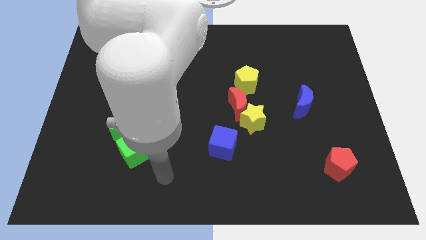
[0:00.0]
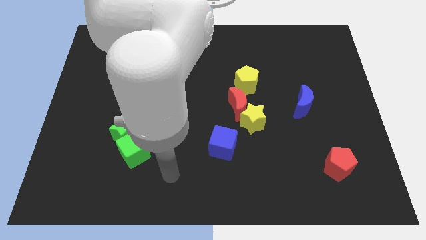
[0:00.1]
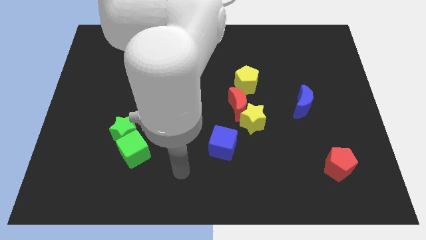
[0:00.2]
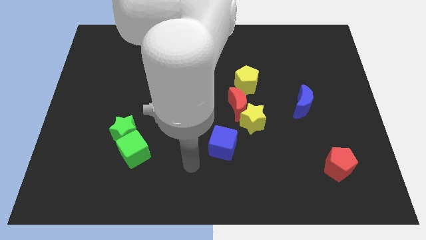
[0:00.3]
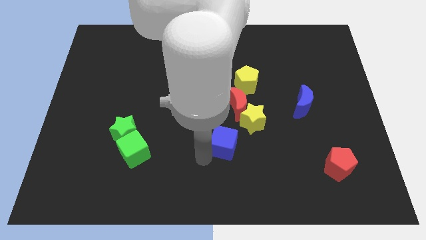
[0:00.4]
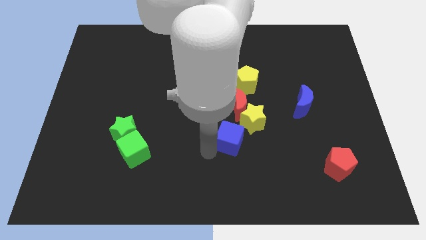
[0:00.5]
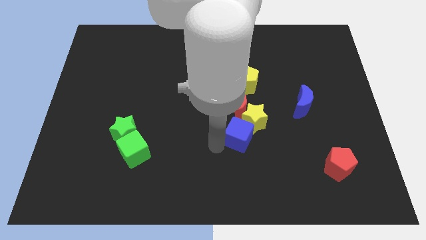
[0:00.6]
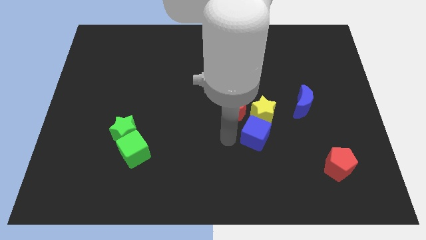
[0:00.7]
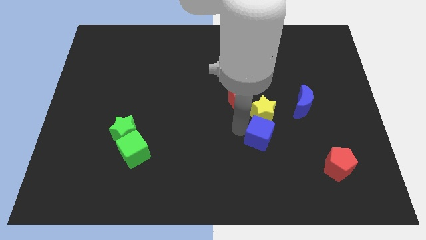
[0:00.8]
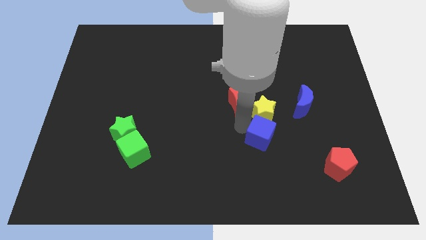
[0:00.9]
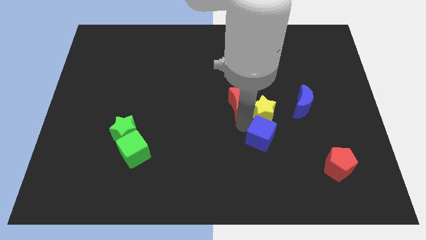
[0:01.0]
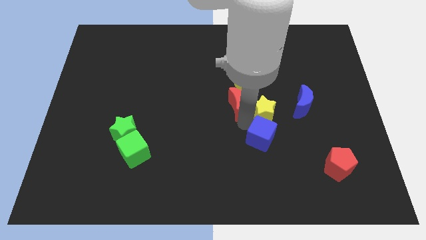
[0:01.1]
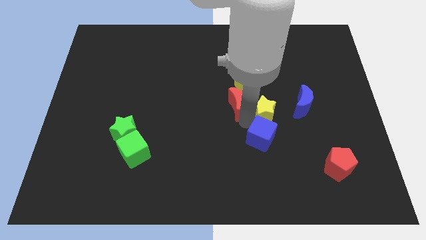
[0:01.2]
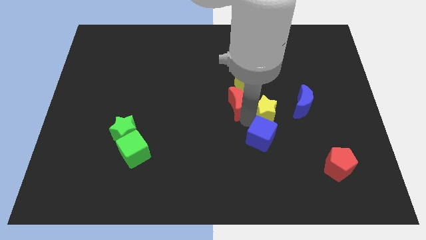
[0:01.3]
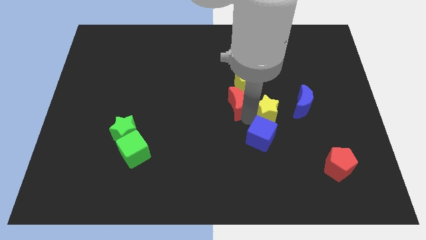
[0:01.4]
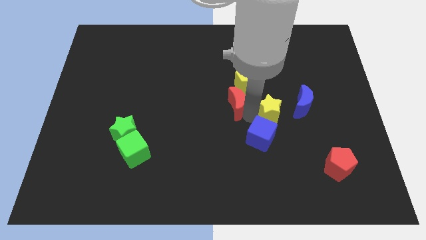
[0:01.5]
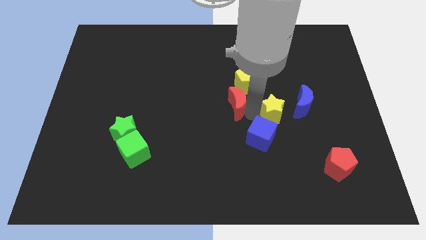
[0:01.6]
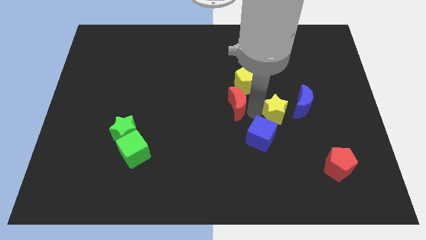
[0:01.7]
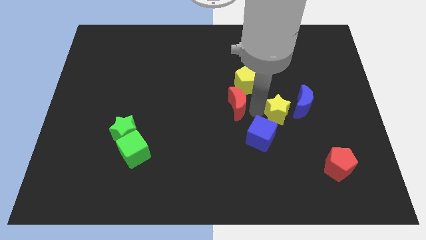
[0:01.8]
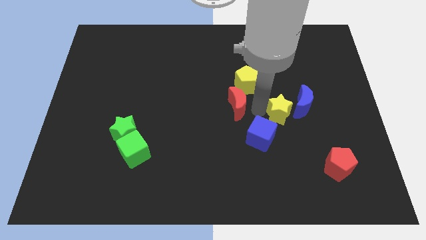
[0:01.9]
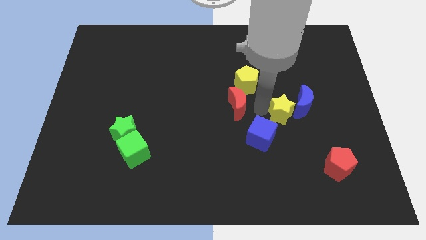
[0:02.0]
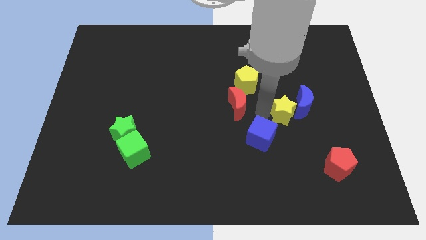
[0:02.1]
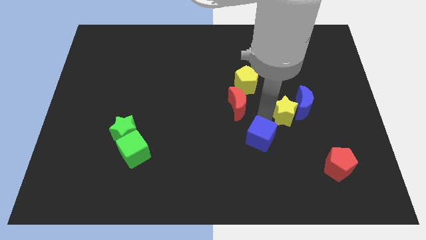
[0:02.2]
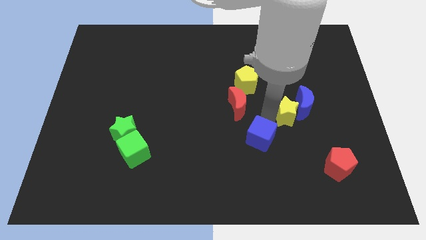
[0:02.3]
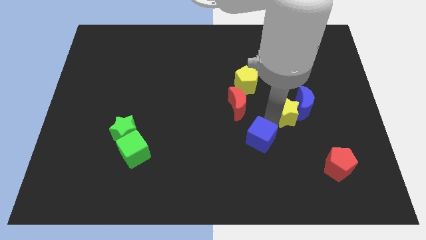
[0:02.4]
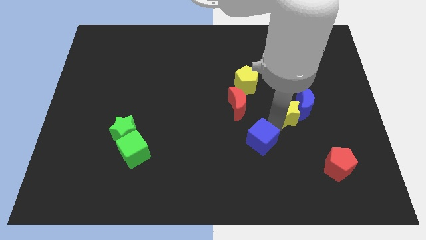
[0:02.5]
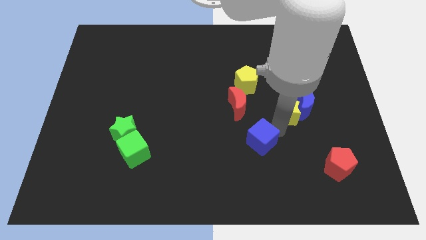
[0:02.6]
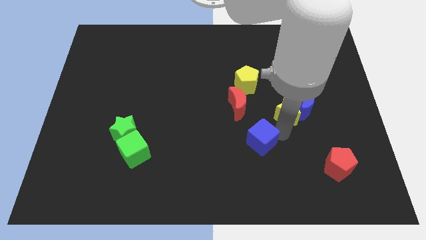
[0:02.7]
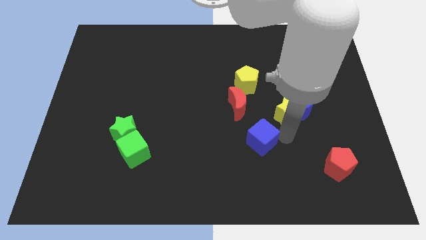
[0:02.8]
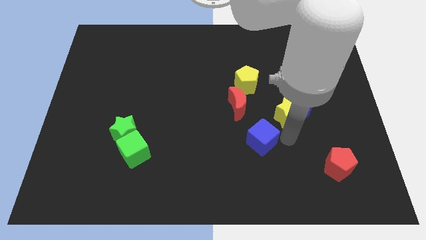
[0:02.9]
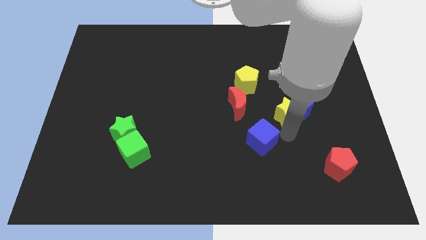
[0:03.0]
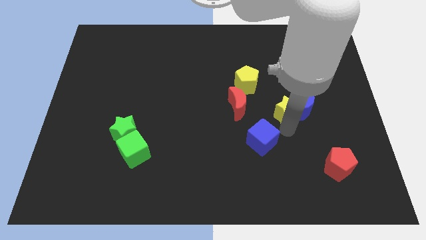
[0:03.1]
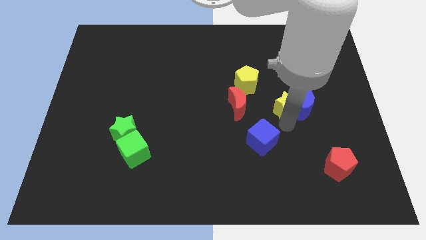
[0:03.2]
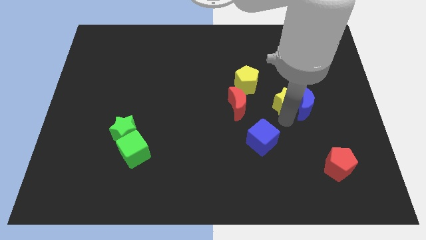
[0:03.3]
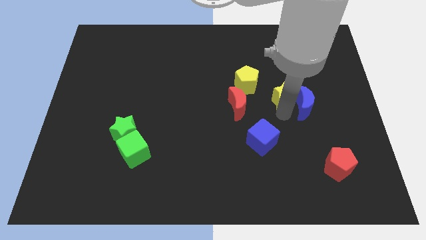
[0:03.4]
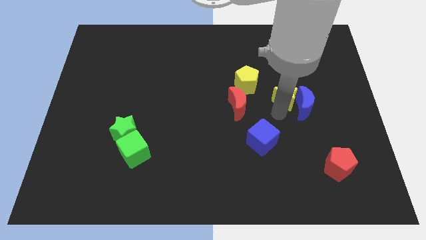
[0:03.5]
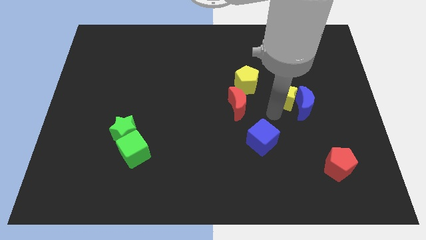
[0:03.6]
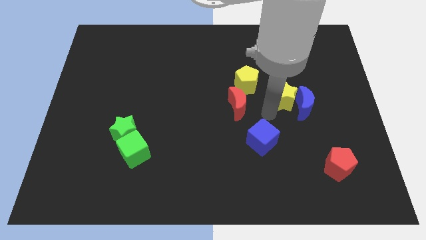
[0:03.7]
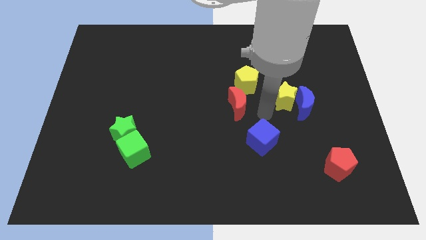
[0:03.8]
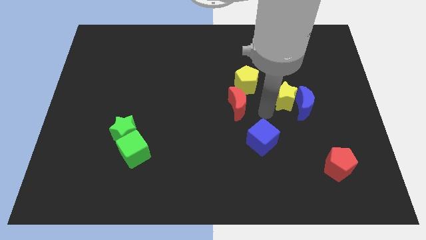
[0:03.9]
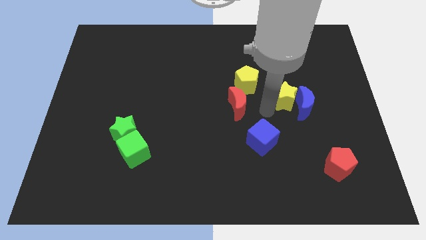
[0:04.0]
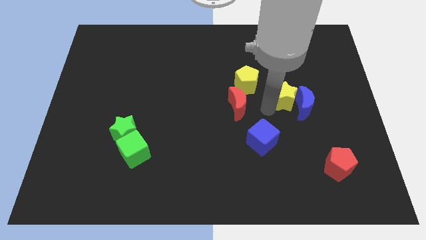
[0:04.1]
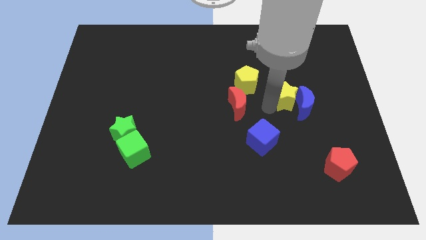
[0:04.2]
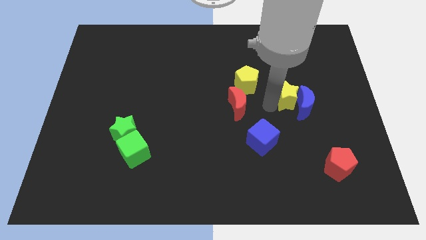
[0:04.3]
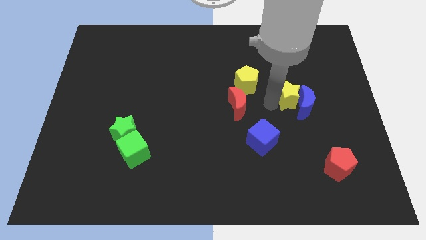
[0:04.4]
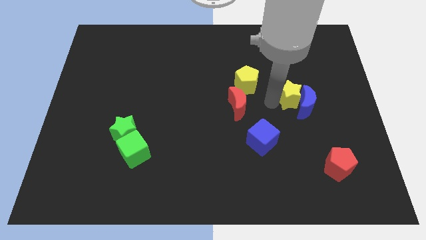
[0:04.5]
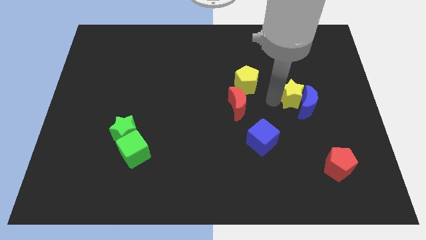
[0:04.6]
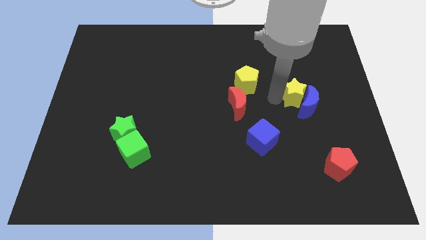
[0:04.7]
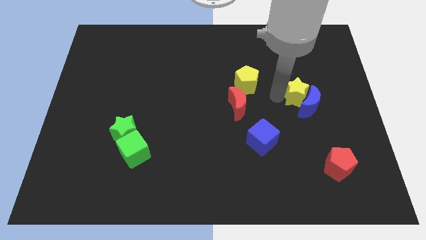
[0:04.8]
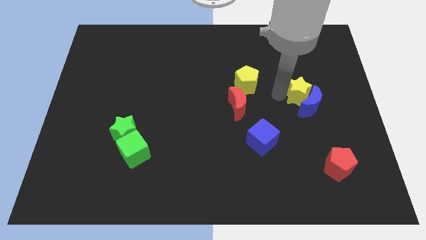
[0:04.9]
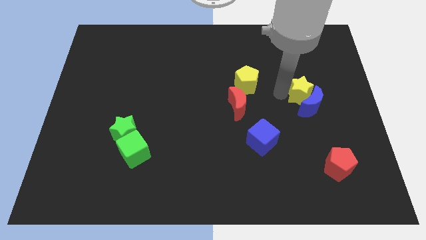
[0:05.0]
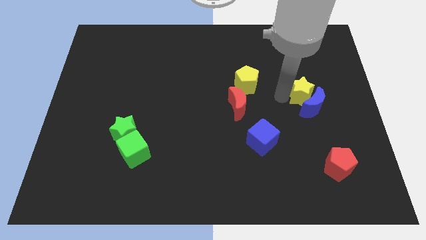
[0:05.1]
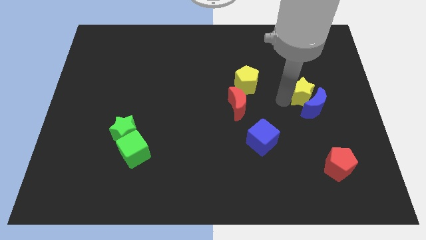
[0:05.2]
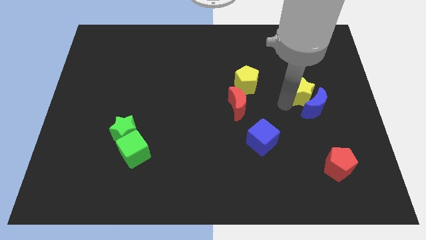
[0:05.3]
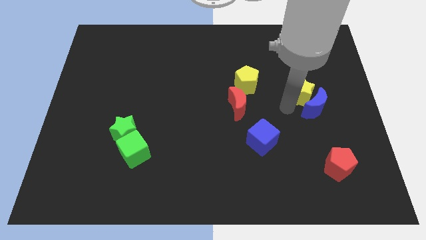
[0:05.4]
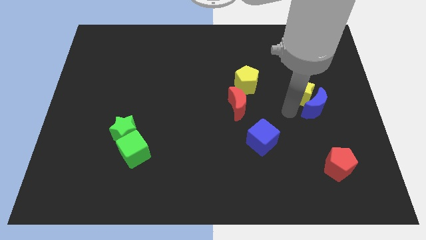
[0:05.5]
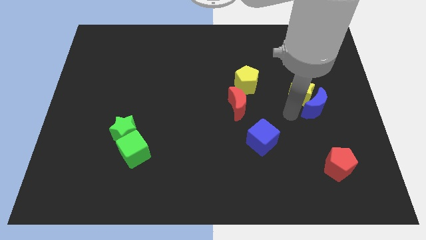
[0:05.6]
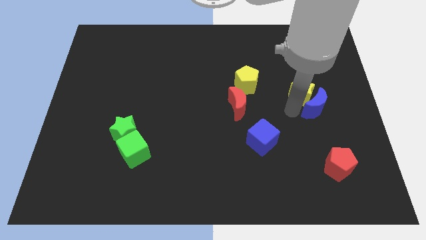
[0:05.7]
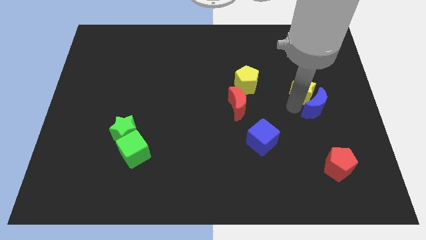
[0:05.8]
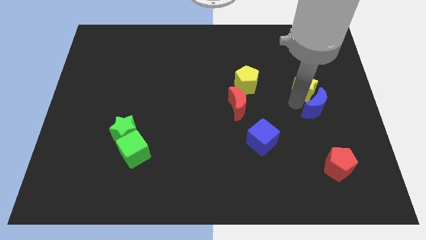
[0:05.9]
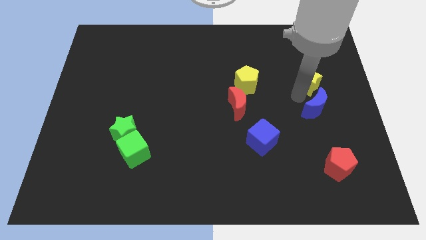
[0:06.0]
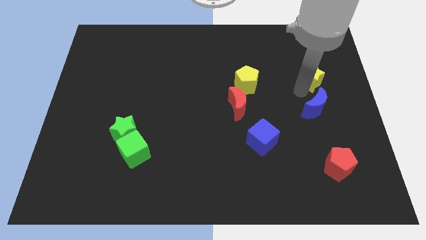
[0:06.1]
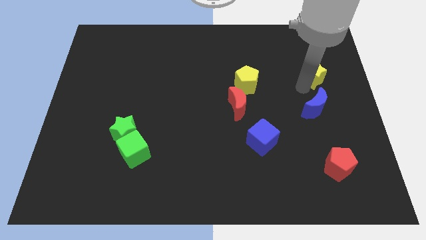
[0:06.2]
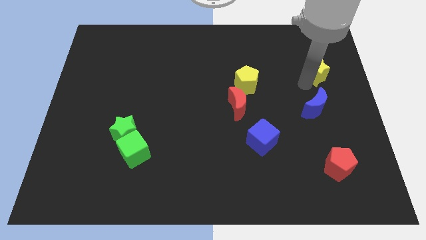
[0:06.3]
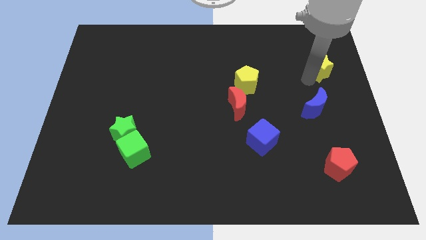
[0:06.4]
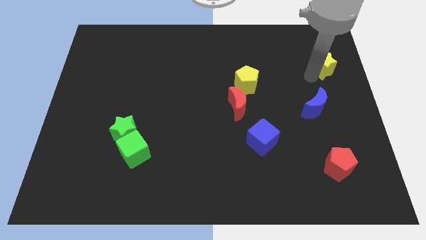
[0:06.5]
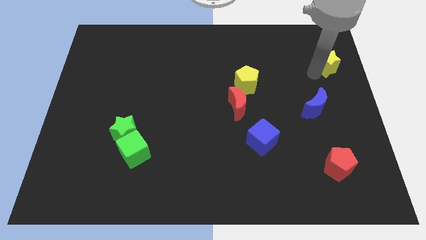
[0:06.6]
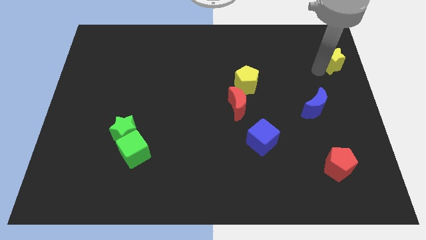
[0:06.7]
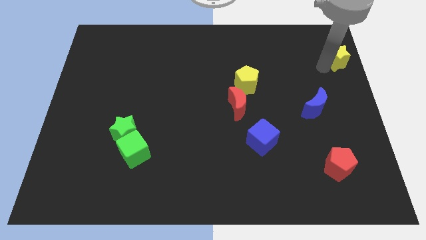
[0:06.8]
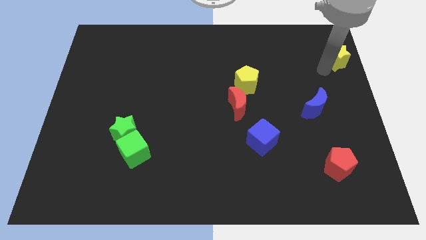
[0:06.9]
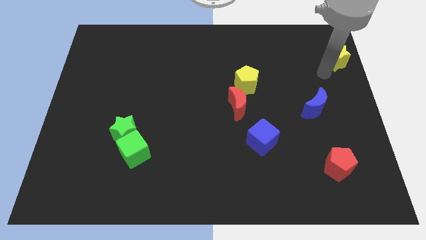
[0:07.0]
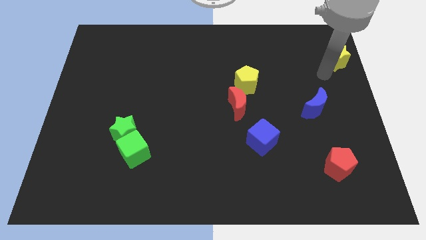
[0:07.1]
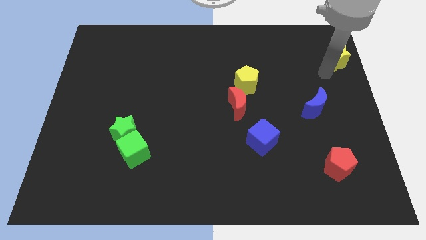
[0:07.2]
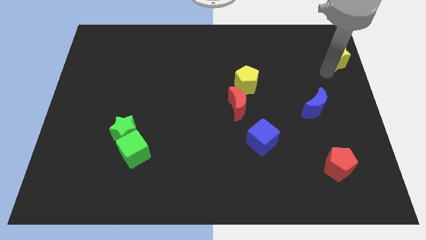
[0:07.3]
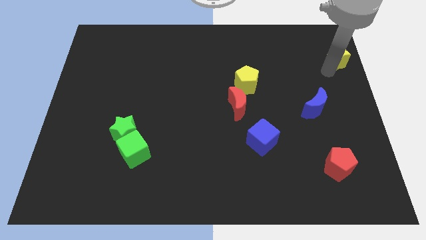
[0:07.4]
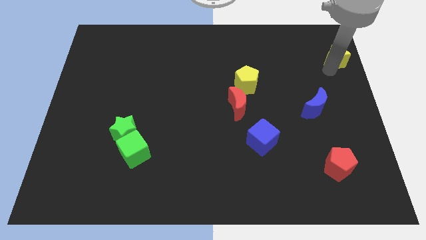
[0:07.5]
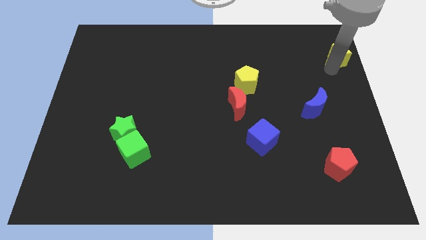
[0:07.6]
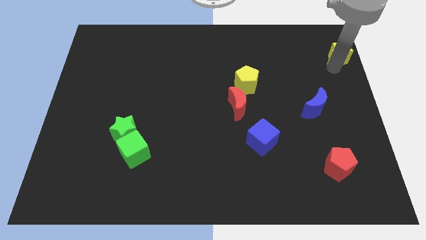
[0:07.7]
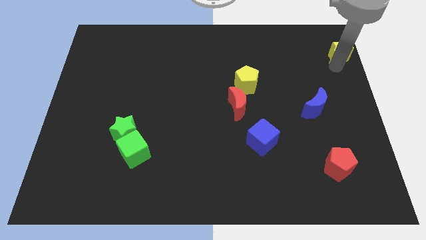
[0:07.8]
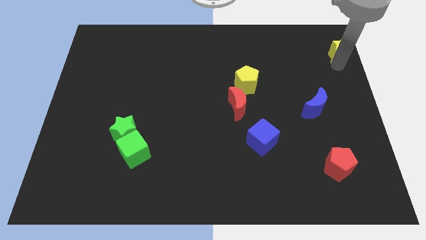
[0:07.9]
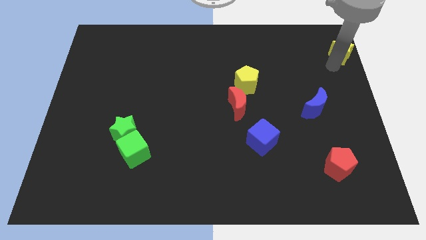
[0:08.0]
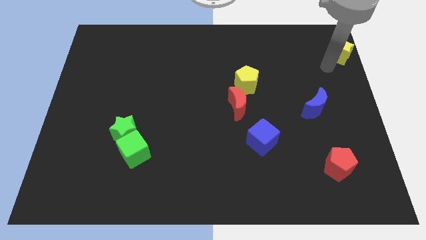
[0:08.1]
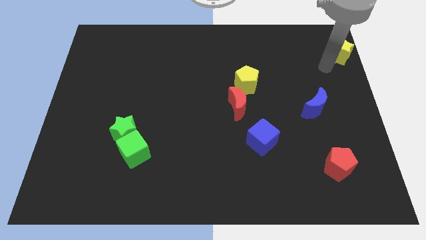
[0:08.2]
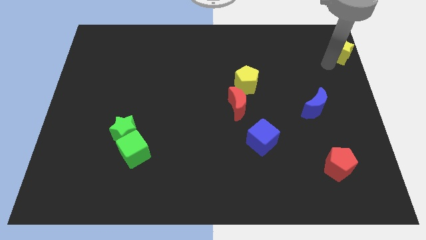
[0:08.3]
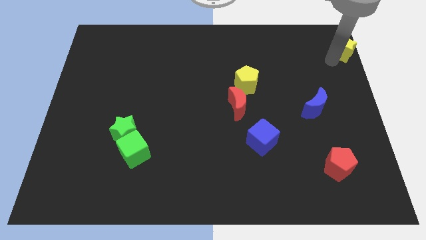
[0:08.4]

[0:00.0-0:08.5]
slide the yellow star to the top right corner
